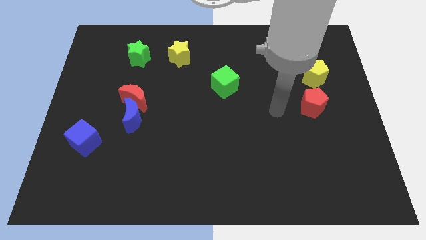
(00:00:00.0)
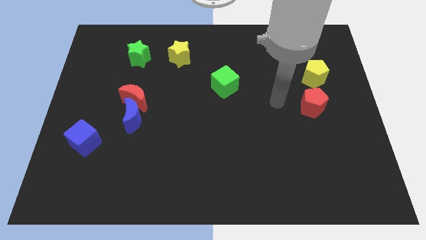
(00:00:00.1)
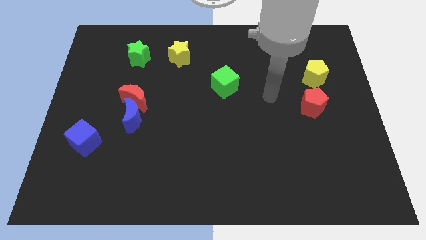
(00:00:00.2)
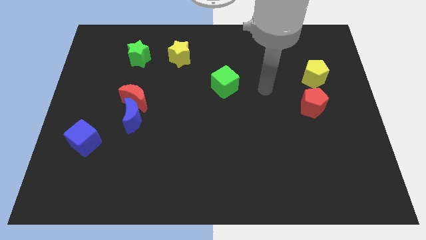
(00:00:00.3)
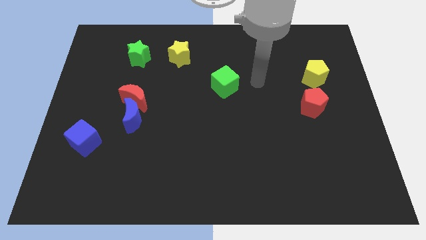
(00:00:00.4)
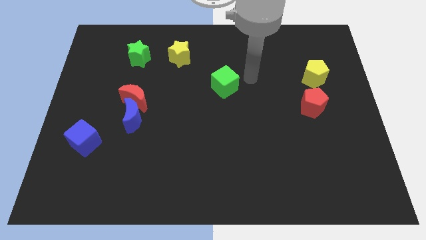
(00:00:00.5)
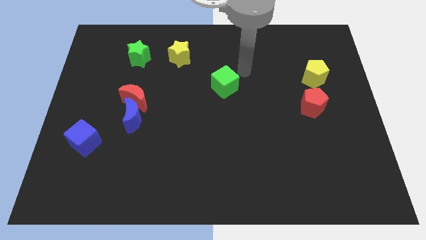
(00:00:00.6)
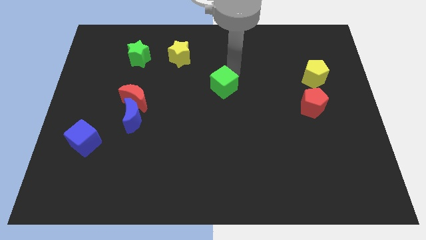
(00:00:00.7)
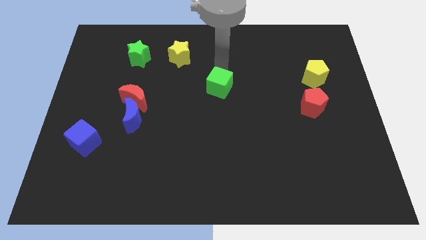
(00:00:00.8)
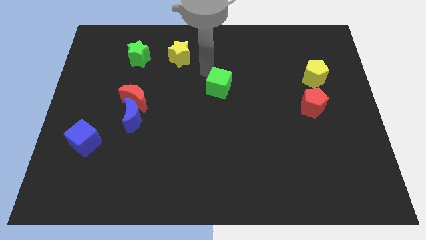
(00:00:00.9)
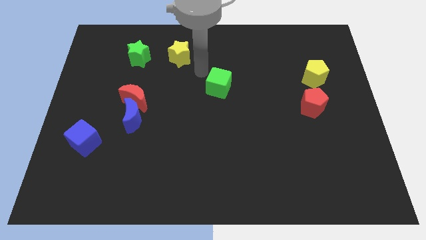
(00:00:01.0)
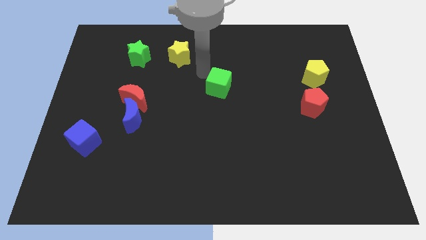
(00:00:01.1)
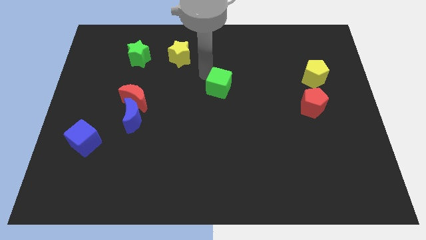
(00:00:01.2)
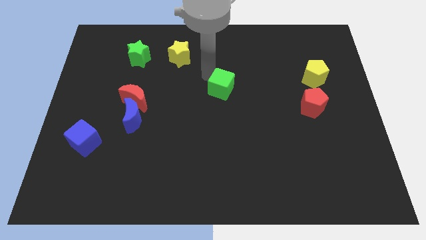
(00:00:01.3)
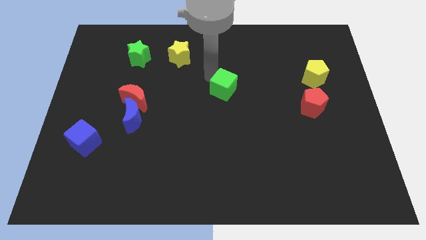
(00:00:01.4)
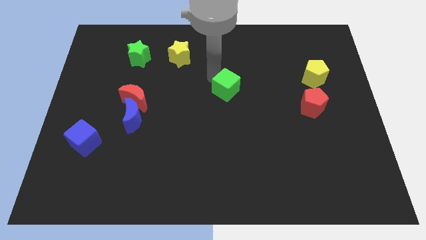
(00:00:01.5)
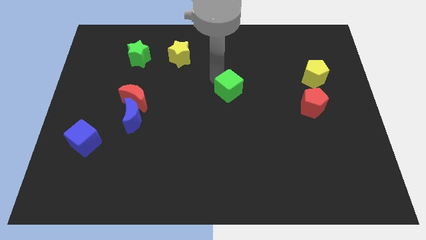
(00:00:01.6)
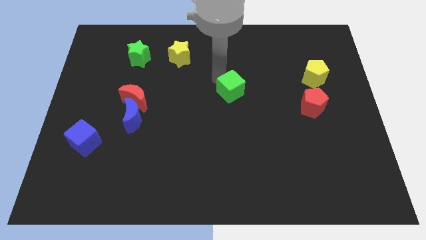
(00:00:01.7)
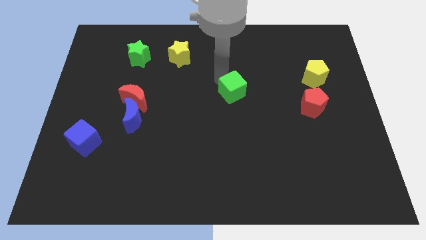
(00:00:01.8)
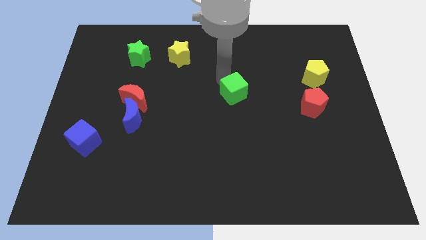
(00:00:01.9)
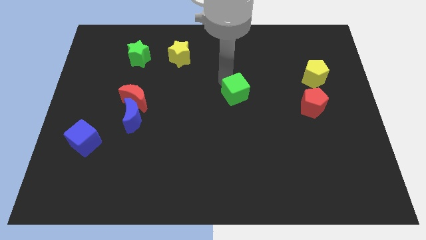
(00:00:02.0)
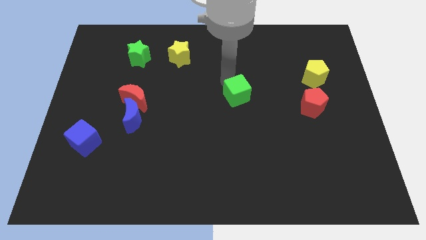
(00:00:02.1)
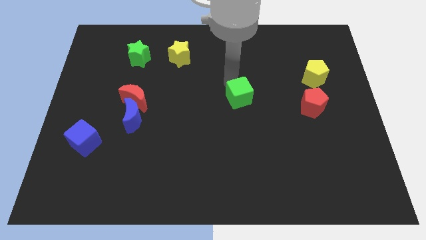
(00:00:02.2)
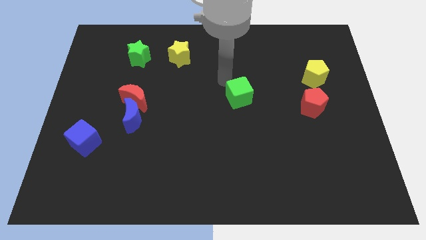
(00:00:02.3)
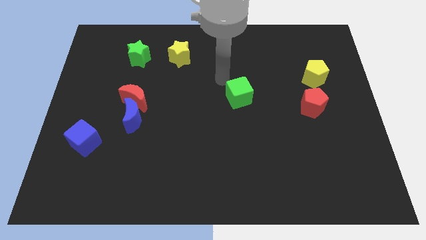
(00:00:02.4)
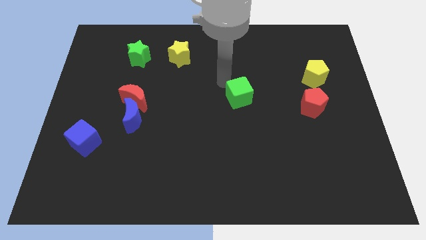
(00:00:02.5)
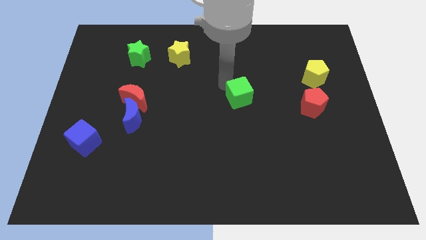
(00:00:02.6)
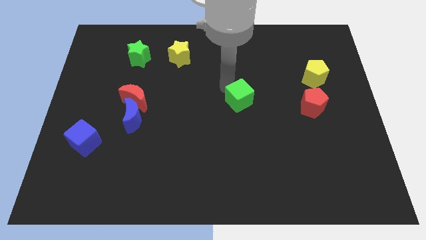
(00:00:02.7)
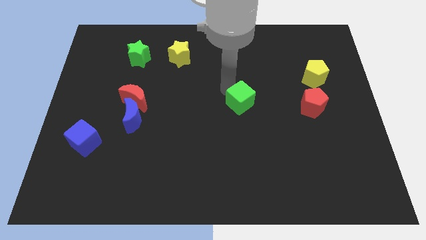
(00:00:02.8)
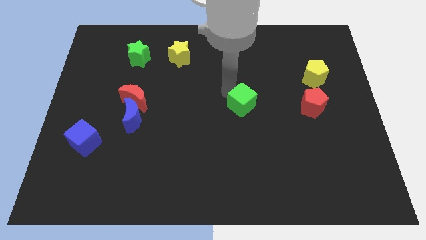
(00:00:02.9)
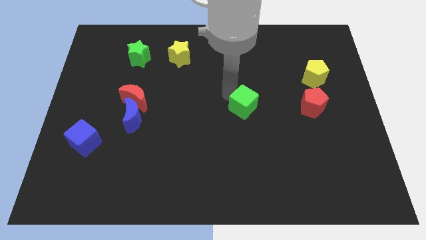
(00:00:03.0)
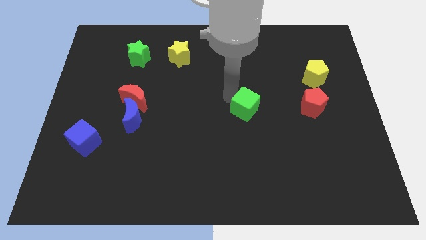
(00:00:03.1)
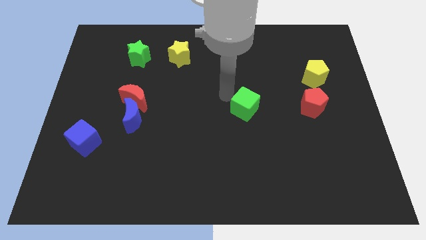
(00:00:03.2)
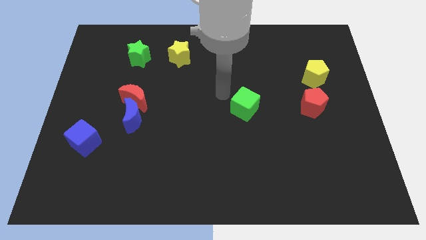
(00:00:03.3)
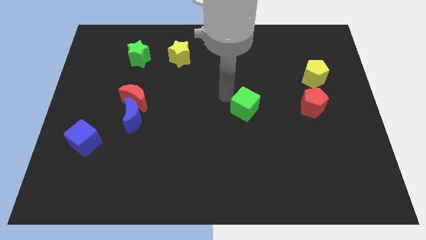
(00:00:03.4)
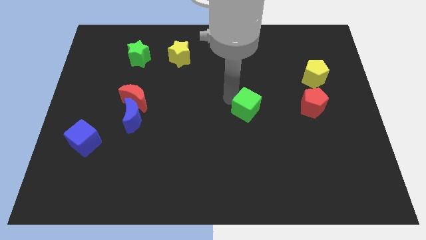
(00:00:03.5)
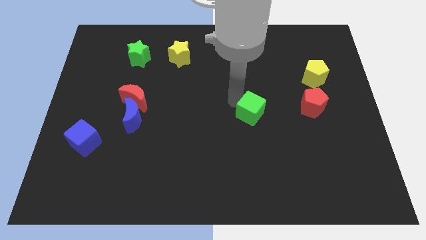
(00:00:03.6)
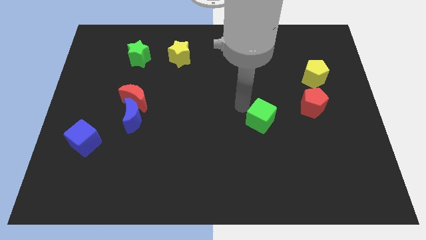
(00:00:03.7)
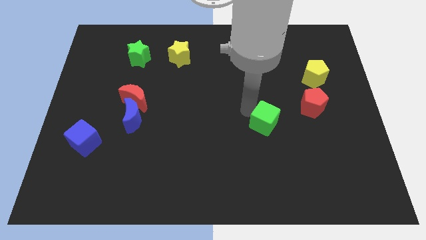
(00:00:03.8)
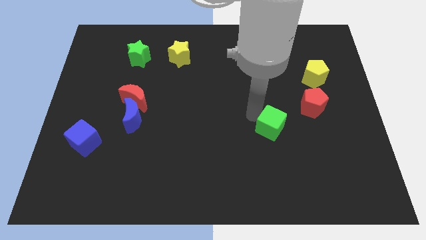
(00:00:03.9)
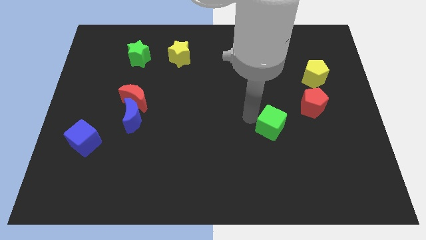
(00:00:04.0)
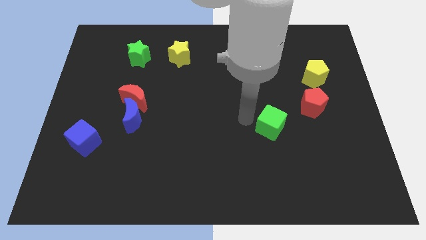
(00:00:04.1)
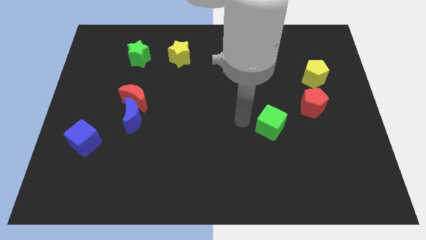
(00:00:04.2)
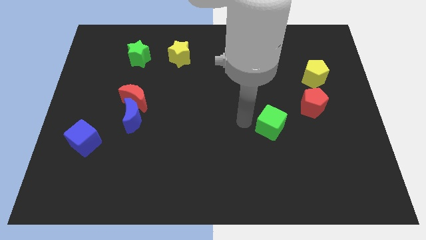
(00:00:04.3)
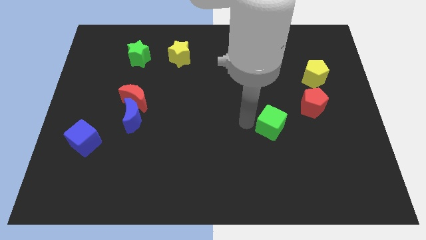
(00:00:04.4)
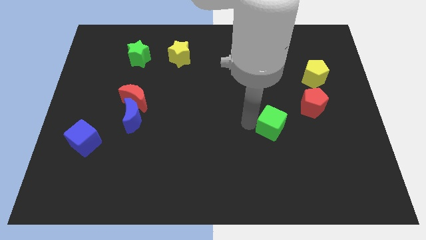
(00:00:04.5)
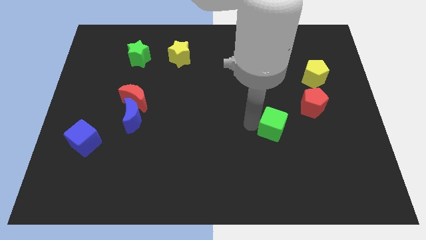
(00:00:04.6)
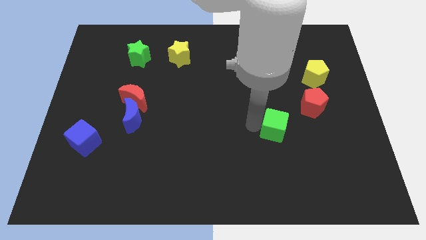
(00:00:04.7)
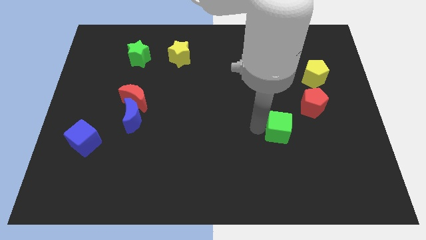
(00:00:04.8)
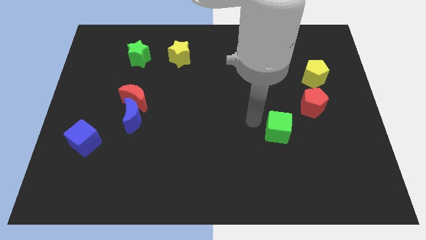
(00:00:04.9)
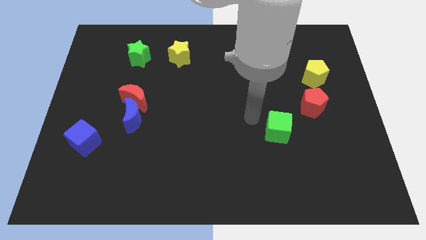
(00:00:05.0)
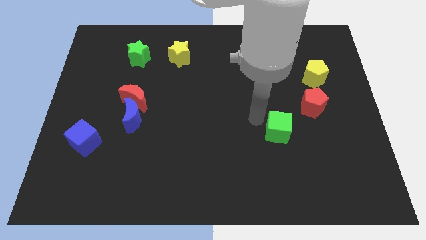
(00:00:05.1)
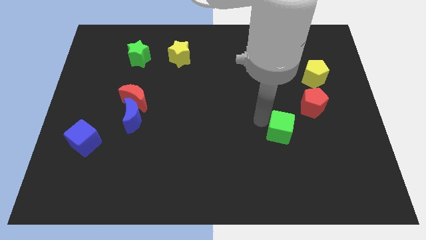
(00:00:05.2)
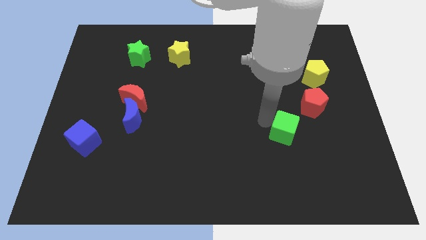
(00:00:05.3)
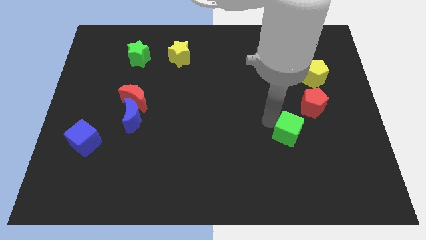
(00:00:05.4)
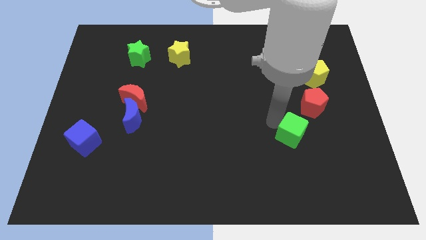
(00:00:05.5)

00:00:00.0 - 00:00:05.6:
push the green cube down and to the right diagonally

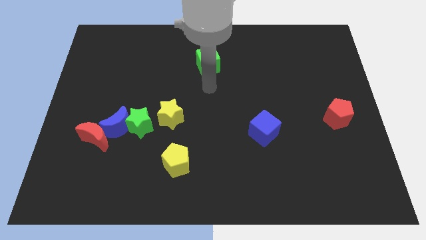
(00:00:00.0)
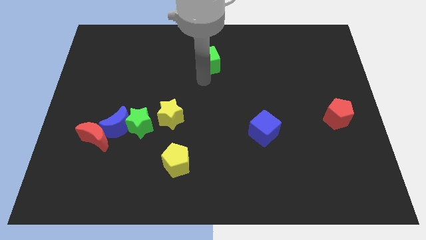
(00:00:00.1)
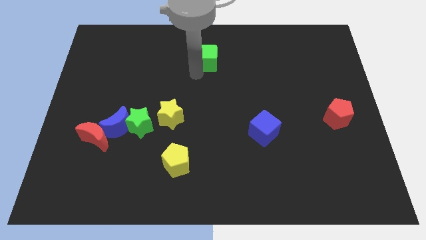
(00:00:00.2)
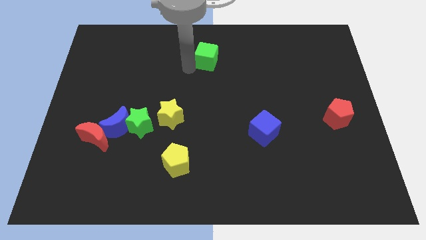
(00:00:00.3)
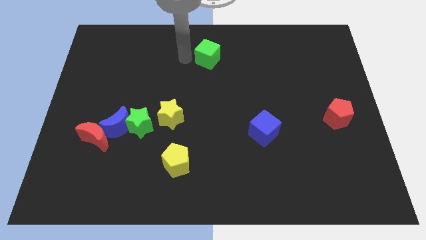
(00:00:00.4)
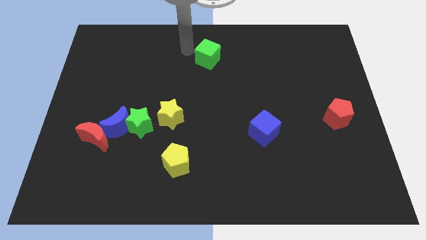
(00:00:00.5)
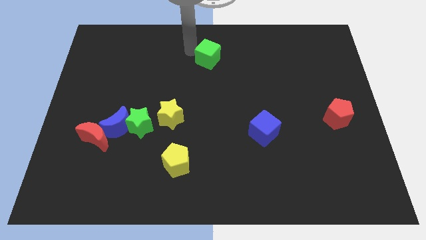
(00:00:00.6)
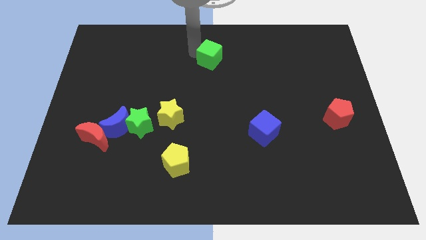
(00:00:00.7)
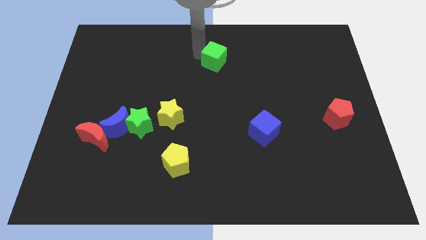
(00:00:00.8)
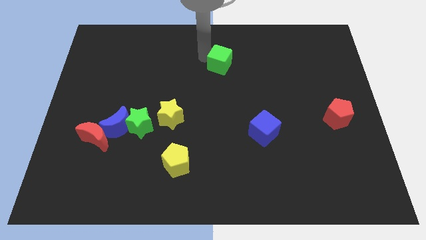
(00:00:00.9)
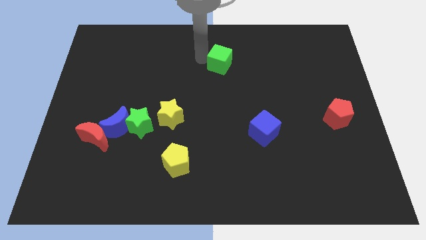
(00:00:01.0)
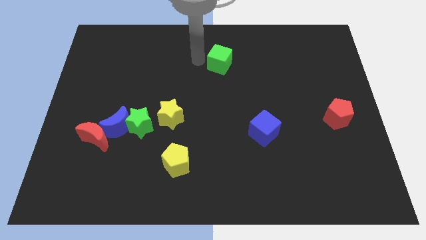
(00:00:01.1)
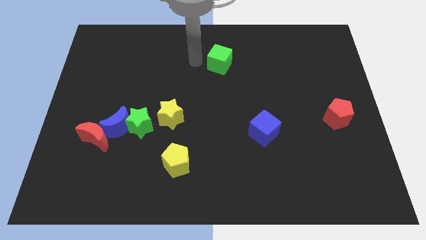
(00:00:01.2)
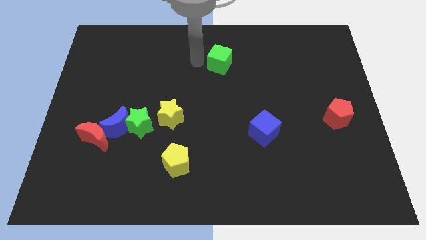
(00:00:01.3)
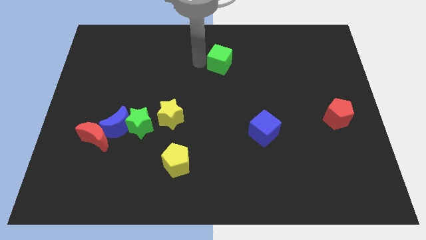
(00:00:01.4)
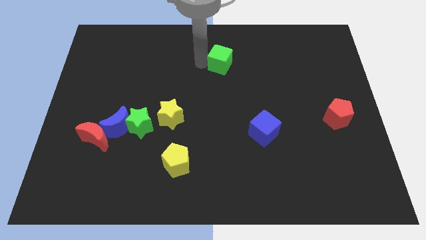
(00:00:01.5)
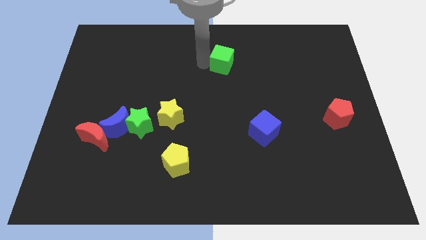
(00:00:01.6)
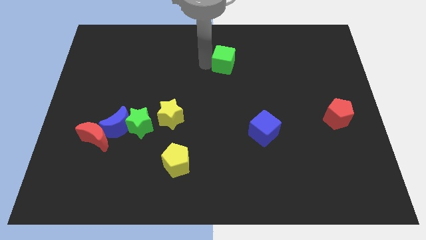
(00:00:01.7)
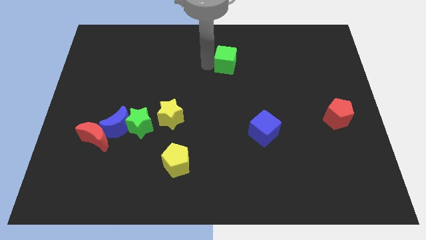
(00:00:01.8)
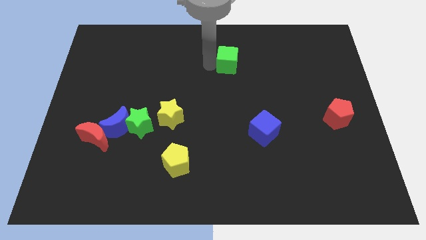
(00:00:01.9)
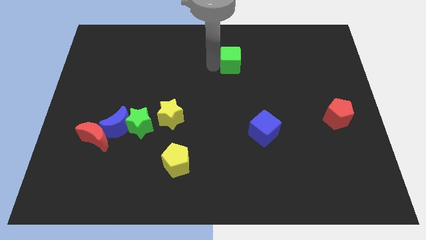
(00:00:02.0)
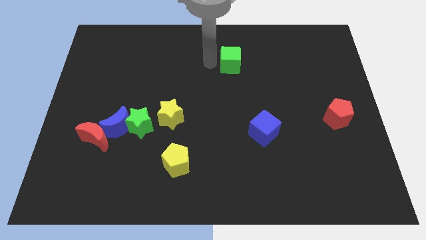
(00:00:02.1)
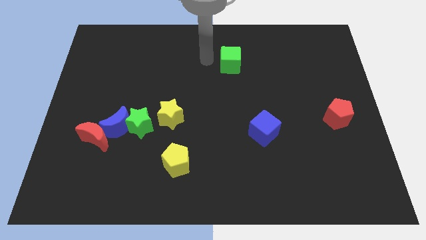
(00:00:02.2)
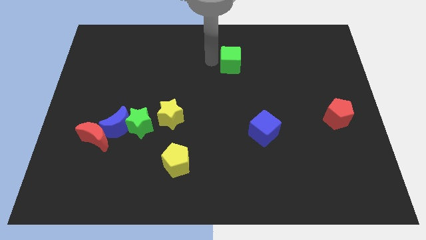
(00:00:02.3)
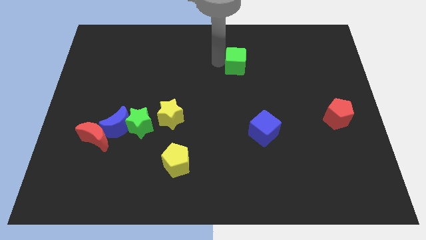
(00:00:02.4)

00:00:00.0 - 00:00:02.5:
move the green cube a little bit to the right
